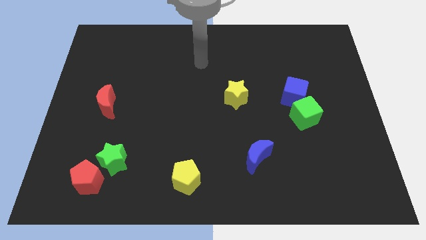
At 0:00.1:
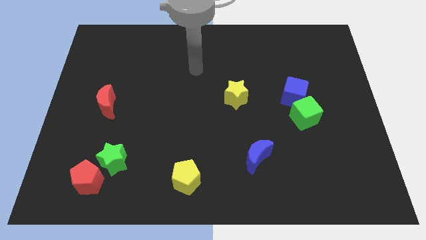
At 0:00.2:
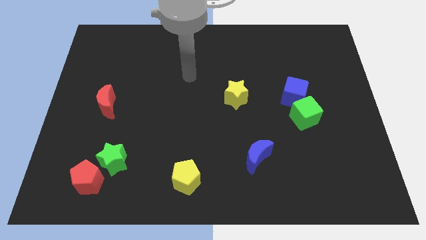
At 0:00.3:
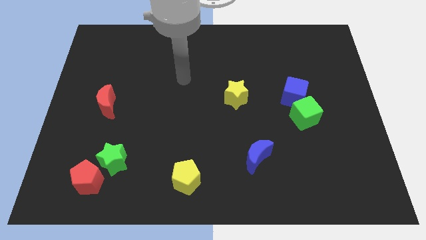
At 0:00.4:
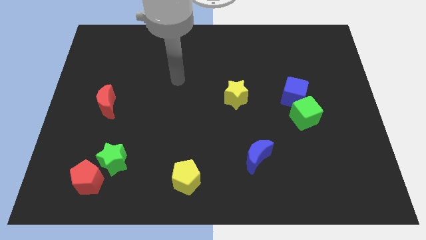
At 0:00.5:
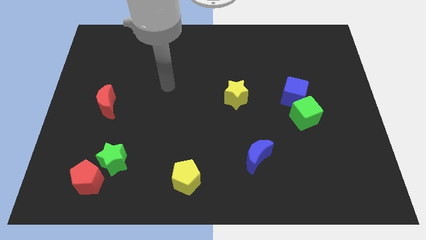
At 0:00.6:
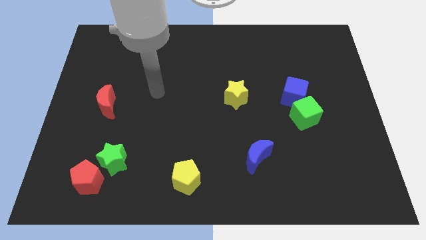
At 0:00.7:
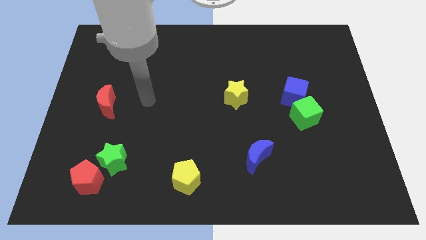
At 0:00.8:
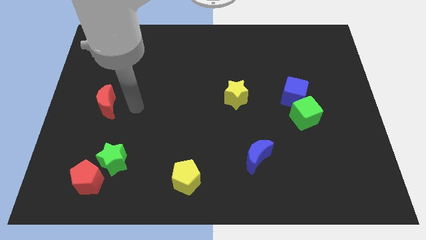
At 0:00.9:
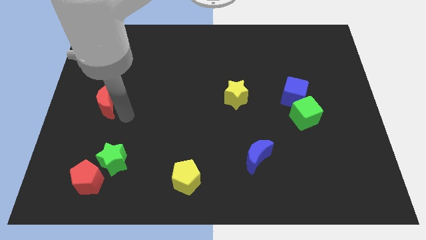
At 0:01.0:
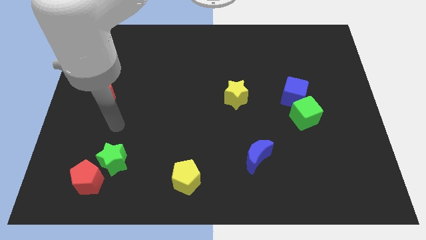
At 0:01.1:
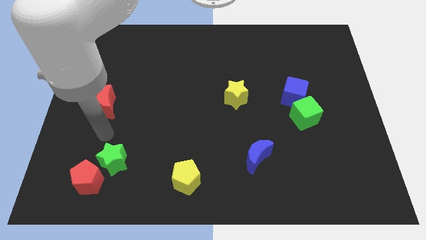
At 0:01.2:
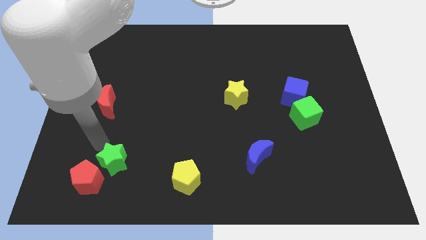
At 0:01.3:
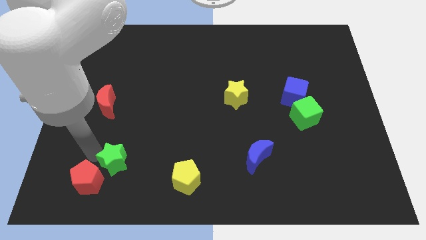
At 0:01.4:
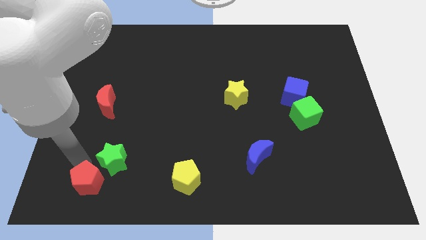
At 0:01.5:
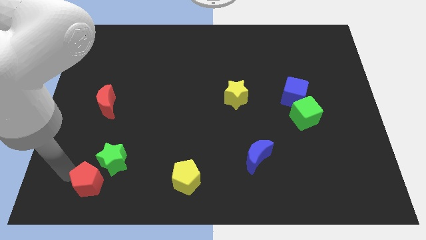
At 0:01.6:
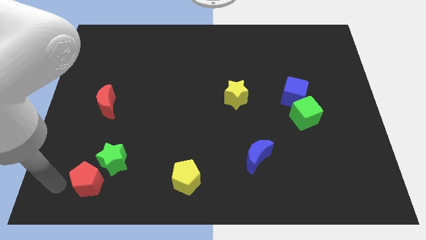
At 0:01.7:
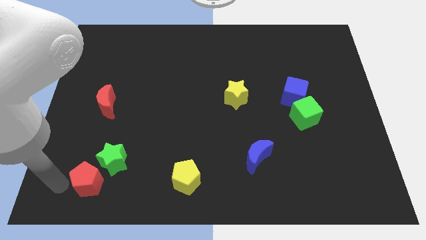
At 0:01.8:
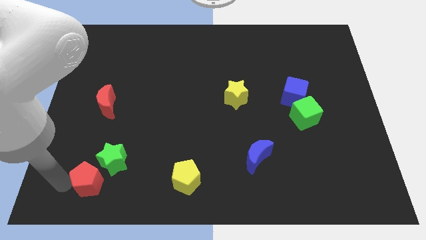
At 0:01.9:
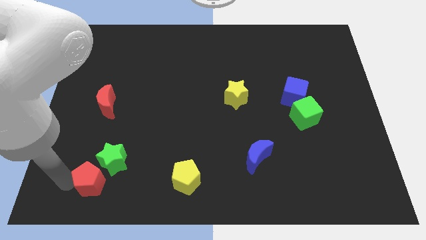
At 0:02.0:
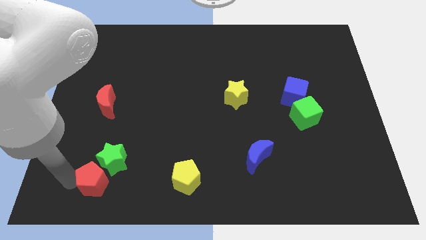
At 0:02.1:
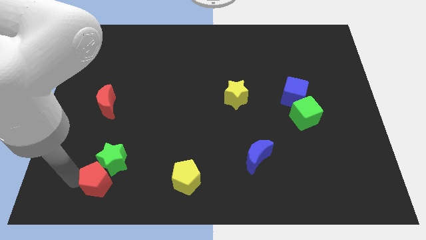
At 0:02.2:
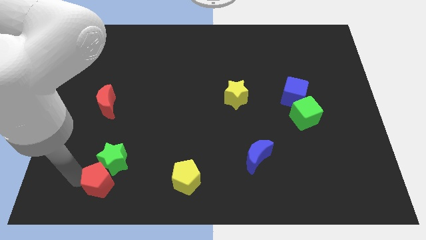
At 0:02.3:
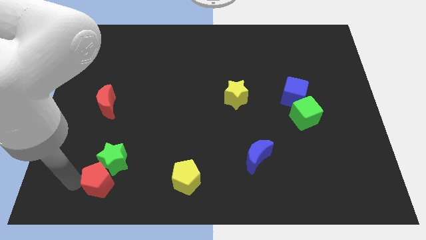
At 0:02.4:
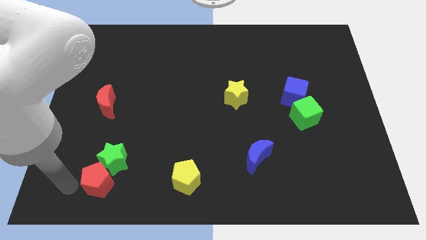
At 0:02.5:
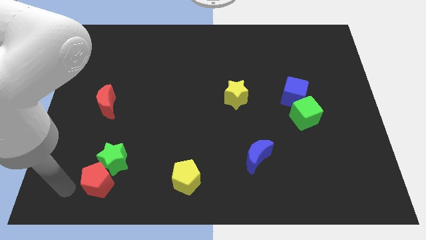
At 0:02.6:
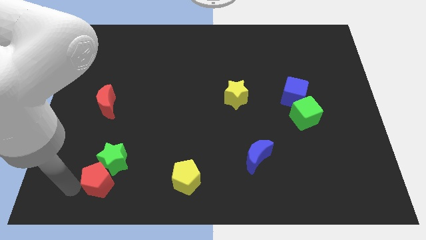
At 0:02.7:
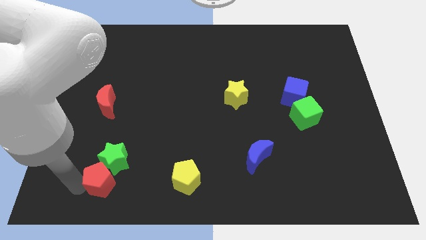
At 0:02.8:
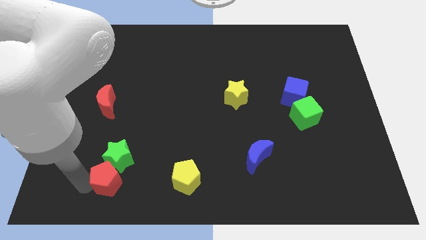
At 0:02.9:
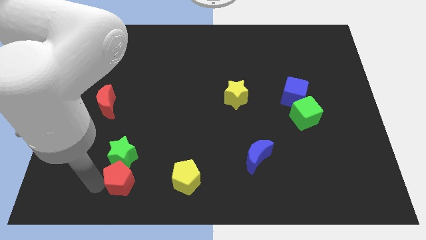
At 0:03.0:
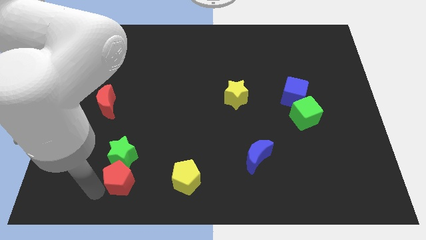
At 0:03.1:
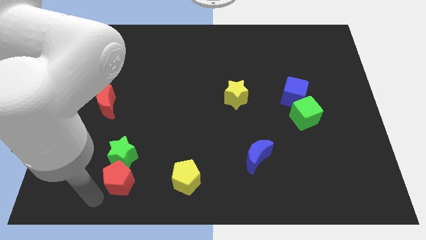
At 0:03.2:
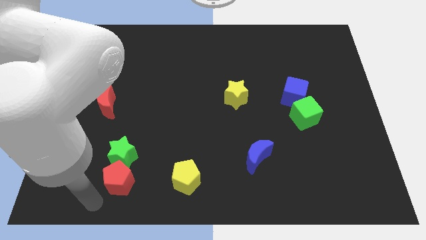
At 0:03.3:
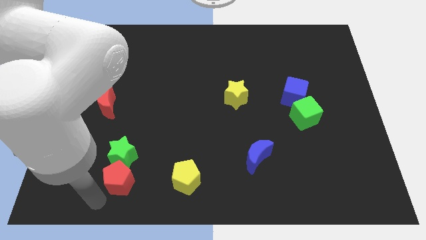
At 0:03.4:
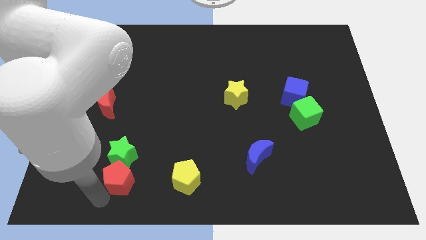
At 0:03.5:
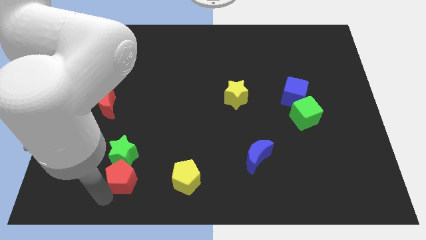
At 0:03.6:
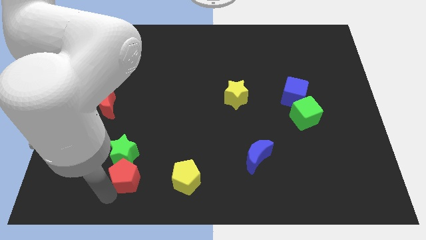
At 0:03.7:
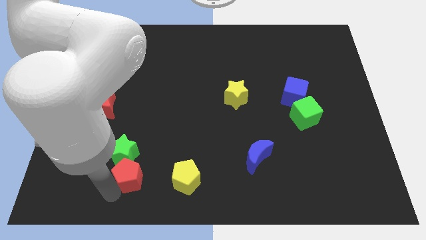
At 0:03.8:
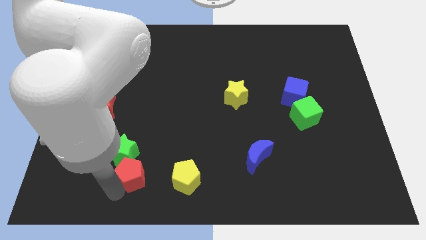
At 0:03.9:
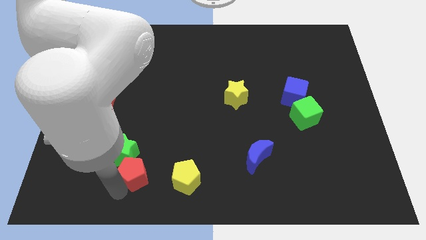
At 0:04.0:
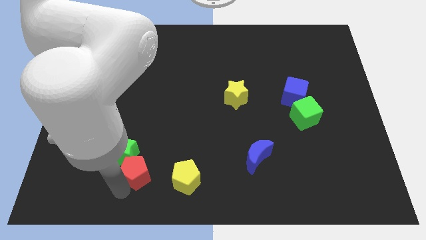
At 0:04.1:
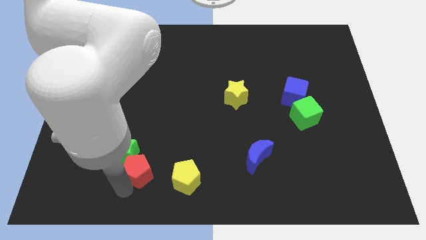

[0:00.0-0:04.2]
slide the red pentagon upwards and right diagonally slightly

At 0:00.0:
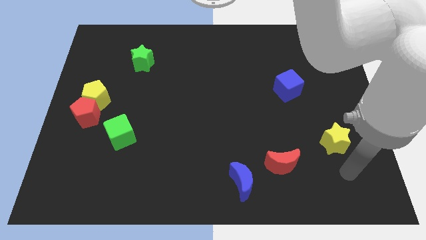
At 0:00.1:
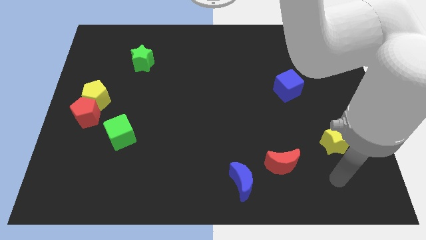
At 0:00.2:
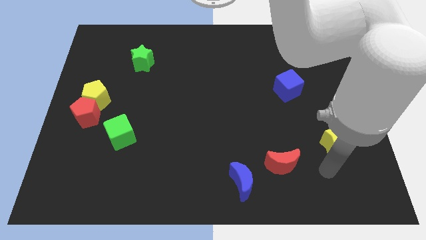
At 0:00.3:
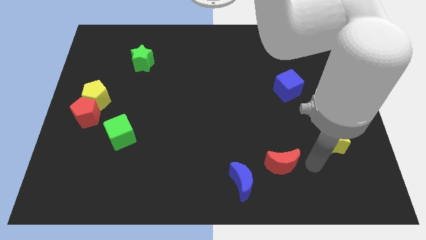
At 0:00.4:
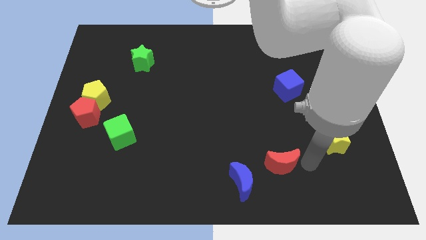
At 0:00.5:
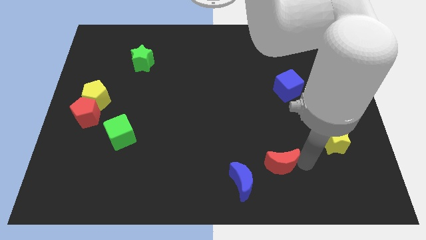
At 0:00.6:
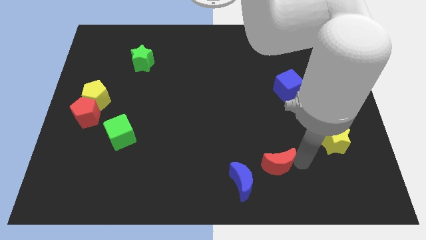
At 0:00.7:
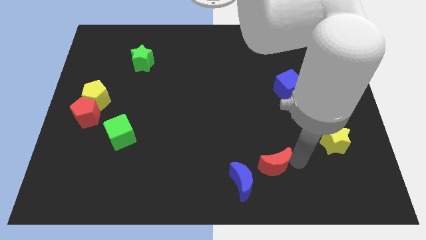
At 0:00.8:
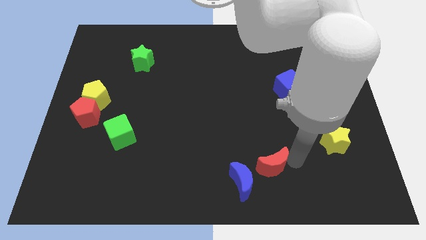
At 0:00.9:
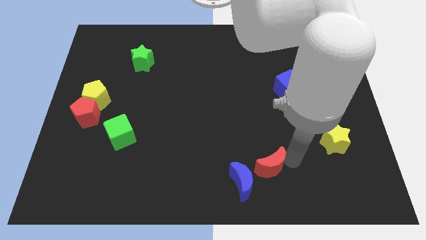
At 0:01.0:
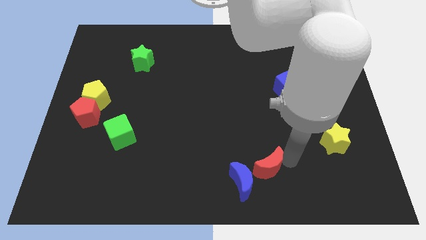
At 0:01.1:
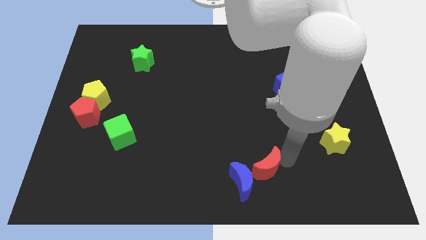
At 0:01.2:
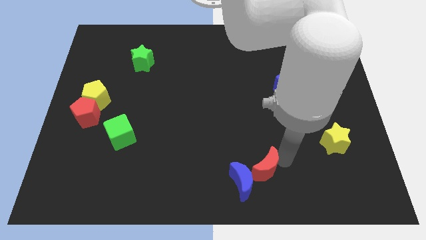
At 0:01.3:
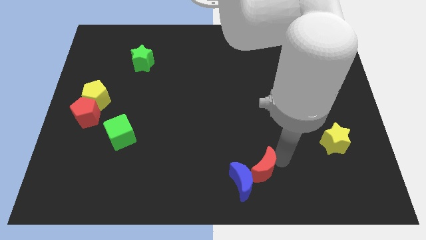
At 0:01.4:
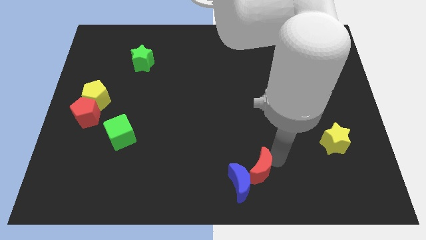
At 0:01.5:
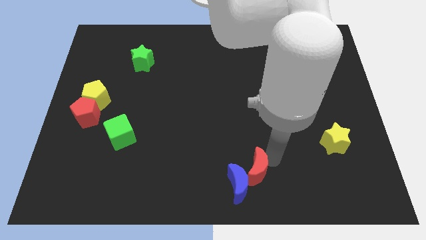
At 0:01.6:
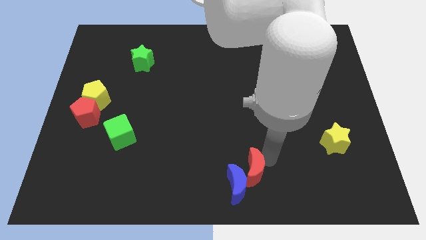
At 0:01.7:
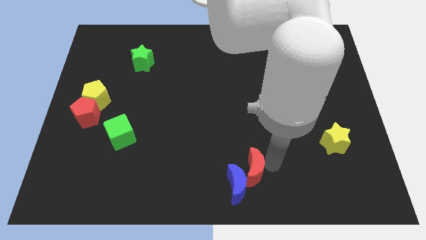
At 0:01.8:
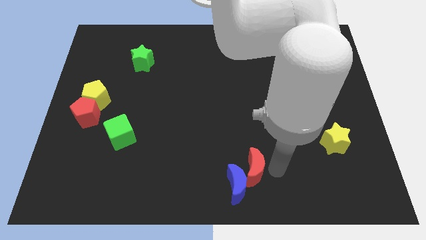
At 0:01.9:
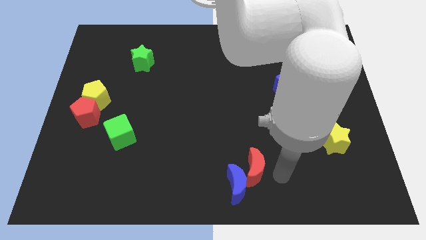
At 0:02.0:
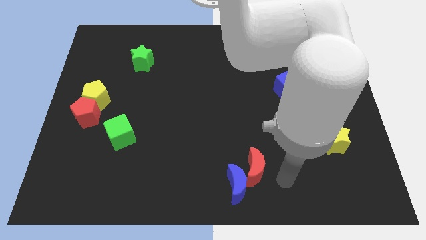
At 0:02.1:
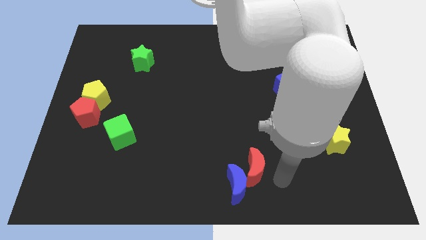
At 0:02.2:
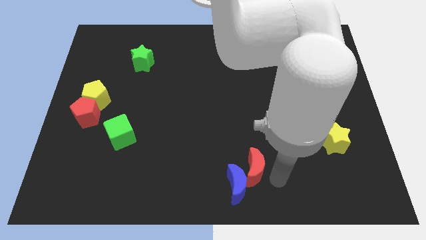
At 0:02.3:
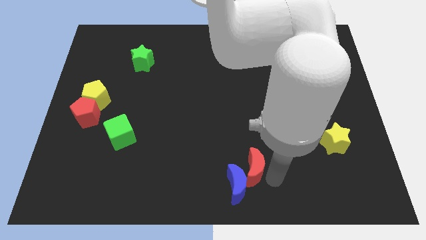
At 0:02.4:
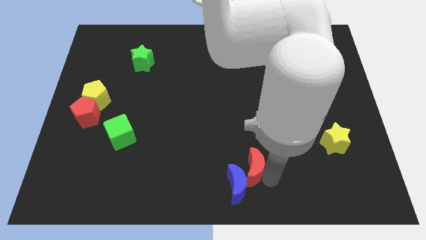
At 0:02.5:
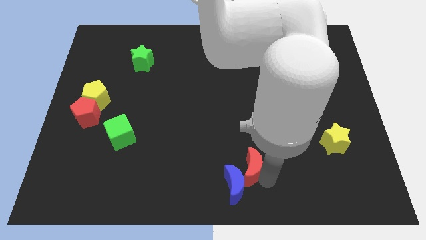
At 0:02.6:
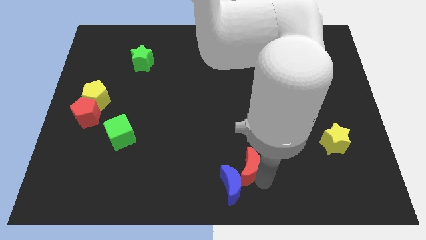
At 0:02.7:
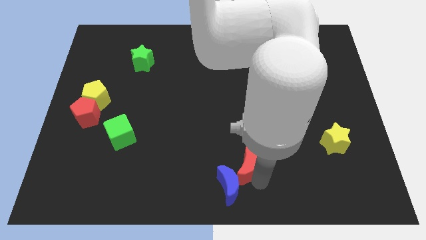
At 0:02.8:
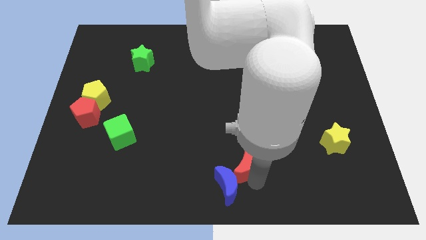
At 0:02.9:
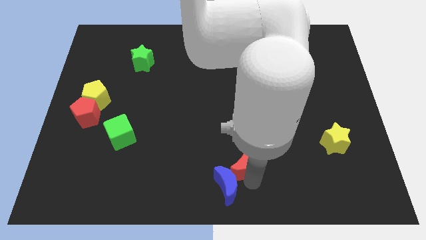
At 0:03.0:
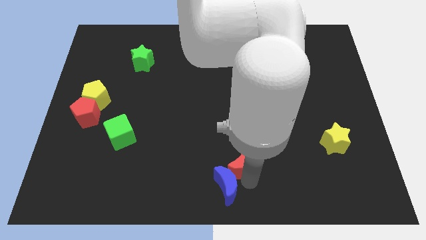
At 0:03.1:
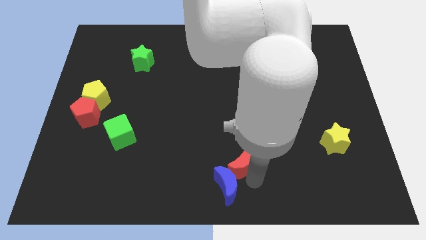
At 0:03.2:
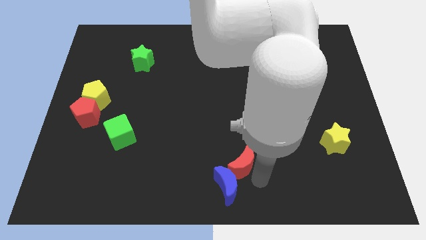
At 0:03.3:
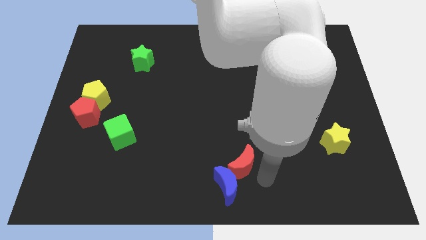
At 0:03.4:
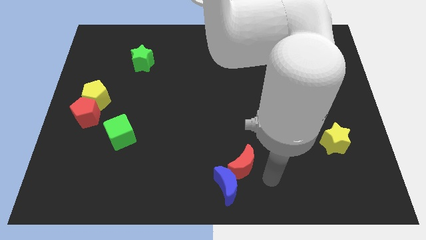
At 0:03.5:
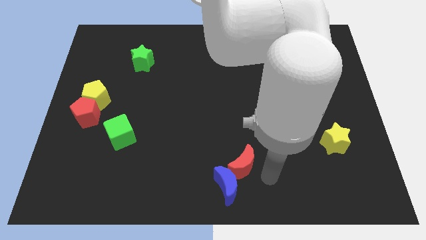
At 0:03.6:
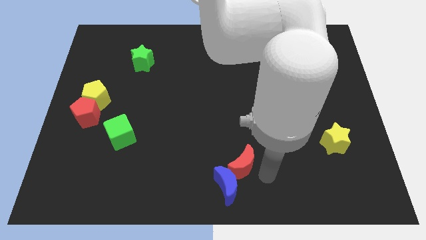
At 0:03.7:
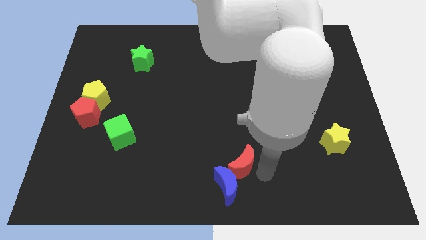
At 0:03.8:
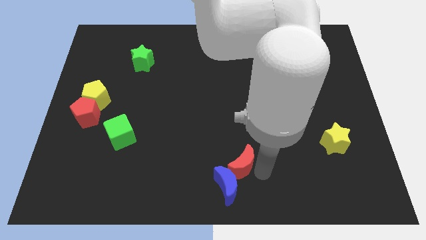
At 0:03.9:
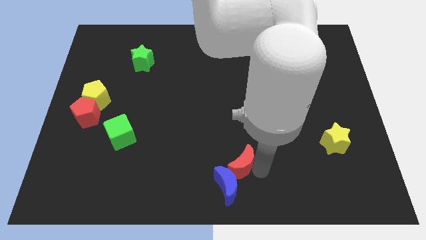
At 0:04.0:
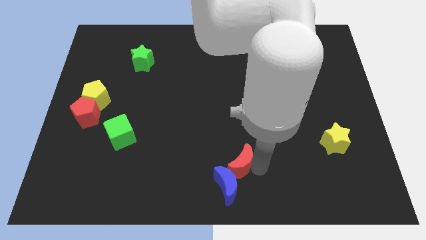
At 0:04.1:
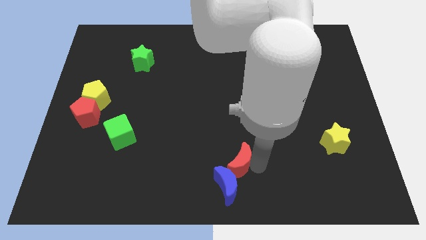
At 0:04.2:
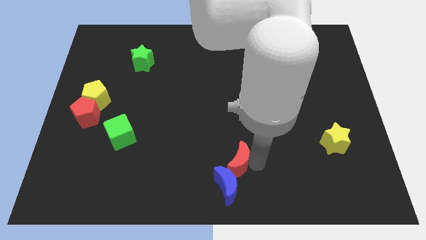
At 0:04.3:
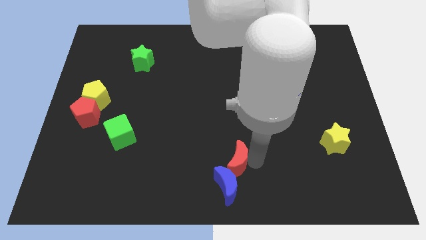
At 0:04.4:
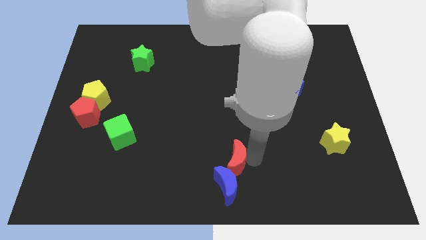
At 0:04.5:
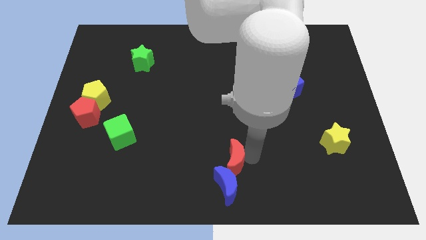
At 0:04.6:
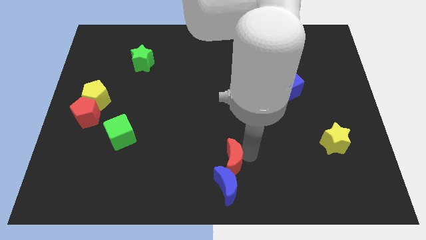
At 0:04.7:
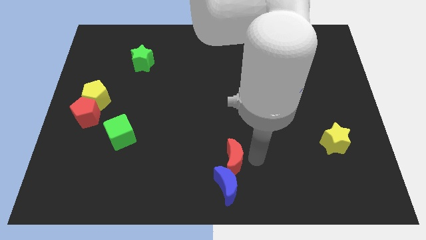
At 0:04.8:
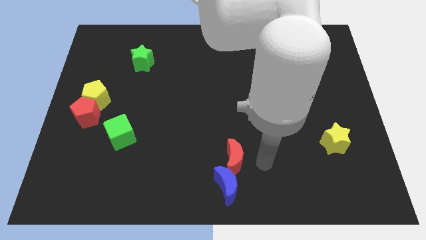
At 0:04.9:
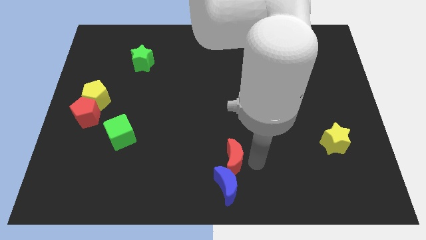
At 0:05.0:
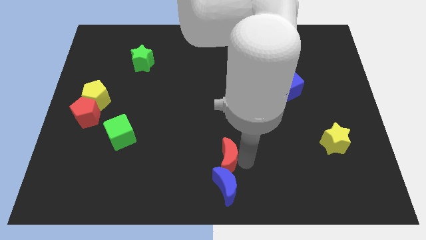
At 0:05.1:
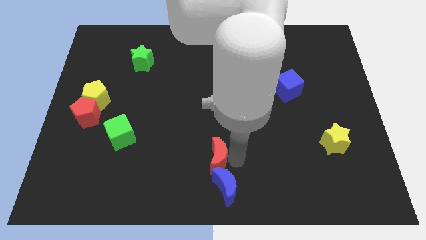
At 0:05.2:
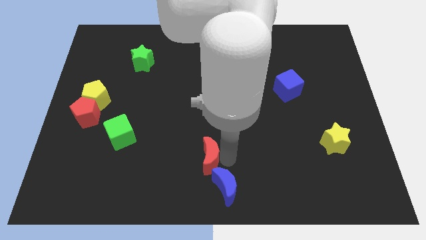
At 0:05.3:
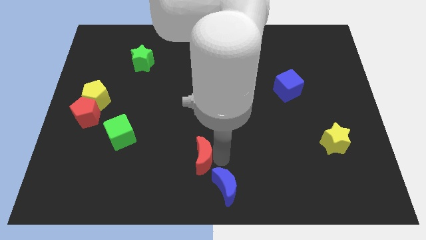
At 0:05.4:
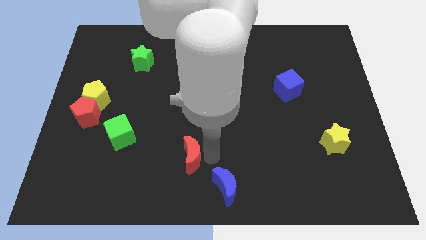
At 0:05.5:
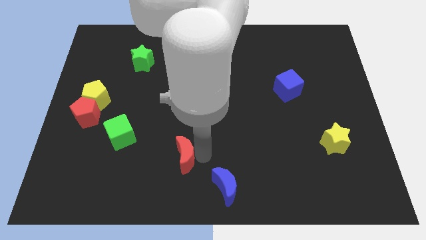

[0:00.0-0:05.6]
move the red moon to the left
